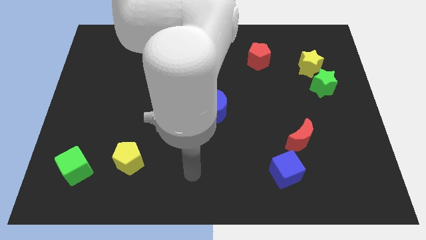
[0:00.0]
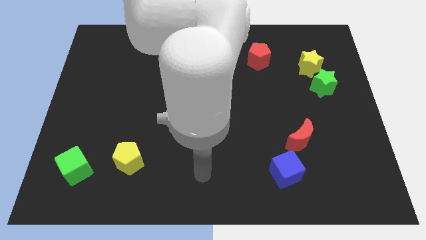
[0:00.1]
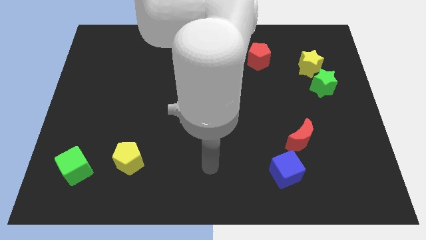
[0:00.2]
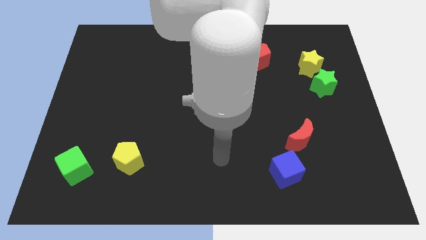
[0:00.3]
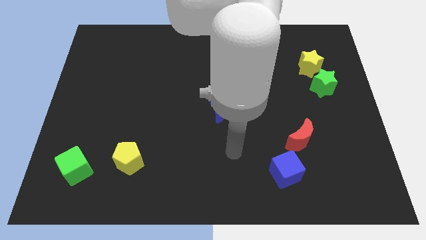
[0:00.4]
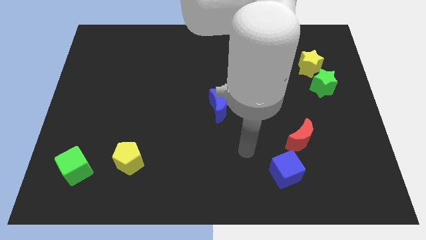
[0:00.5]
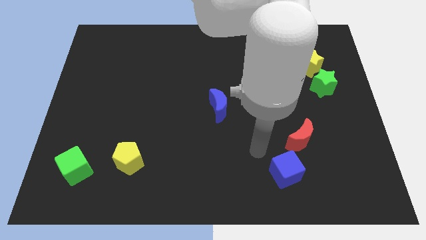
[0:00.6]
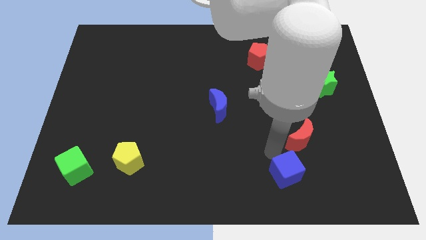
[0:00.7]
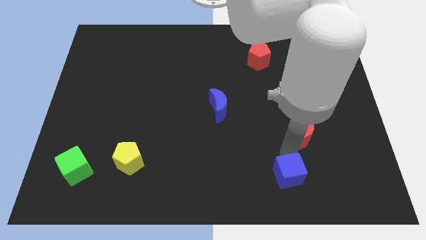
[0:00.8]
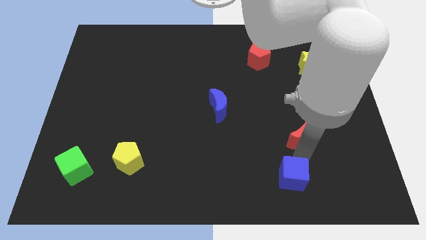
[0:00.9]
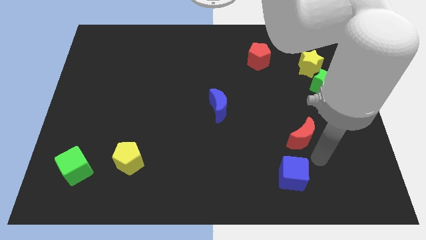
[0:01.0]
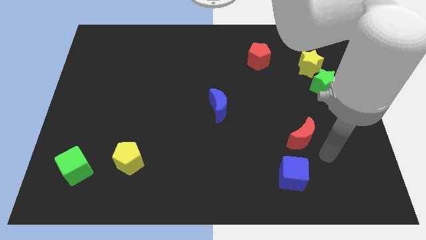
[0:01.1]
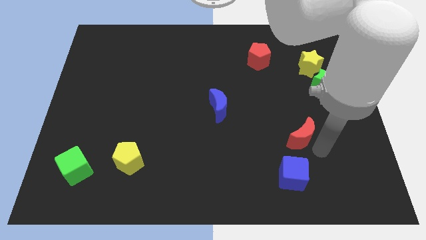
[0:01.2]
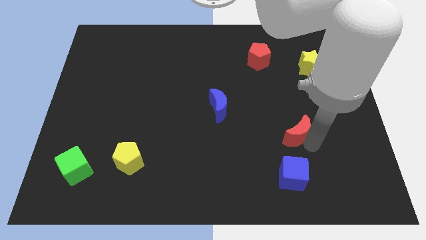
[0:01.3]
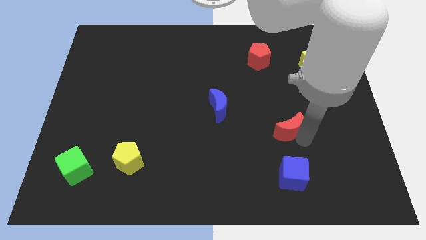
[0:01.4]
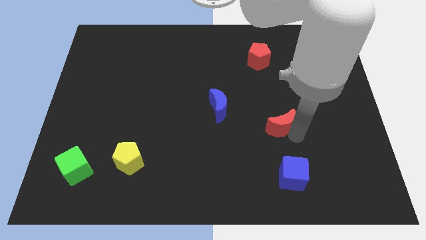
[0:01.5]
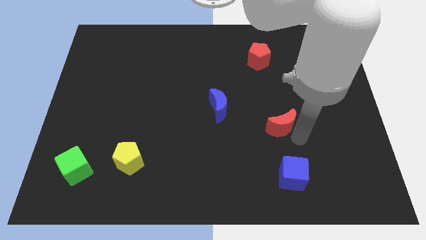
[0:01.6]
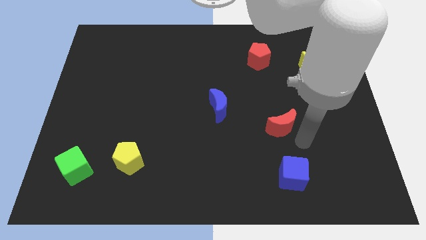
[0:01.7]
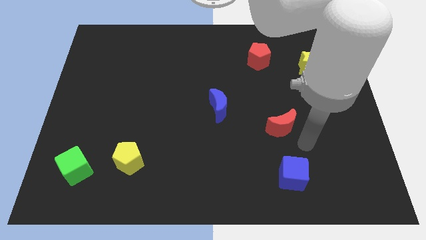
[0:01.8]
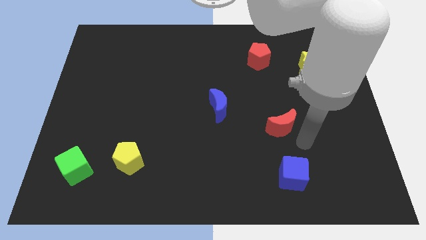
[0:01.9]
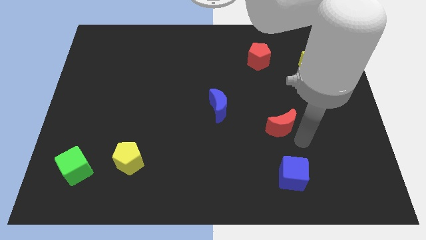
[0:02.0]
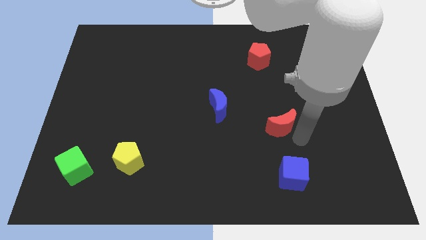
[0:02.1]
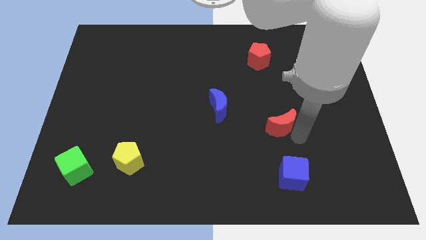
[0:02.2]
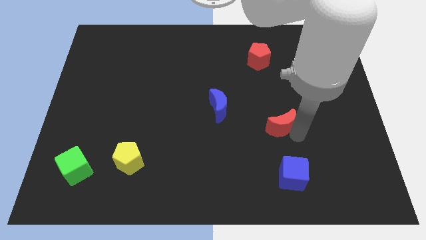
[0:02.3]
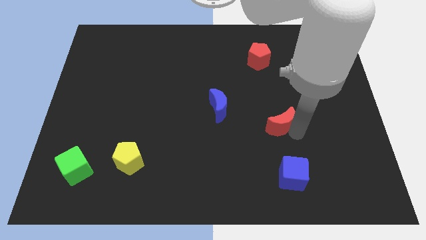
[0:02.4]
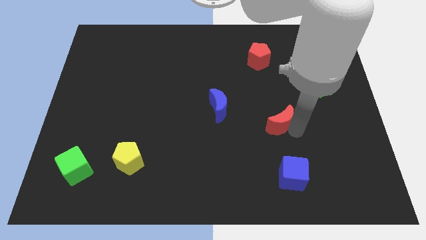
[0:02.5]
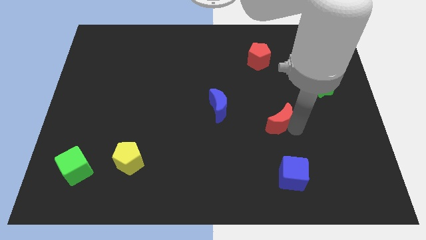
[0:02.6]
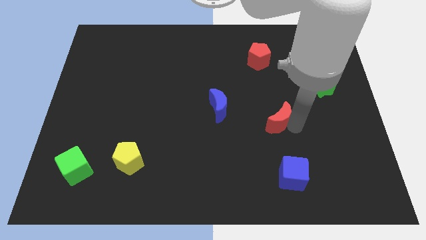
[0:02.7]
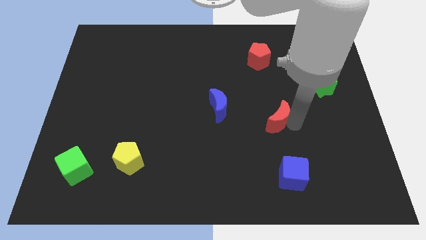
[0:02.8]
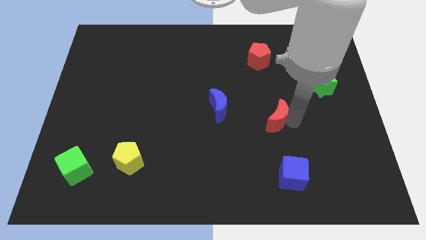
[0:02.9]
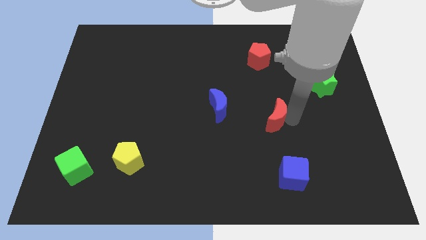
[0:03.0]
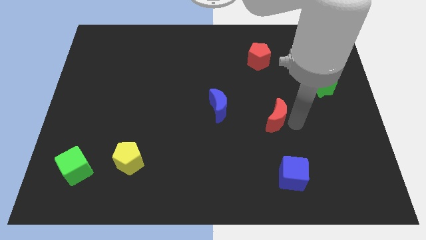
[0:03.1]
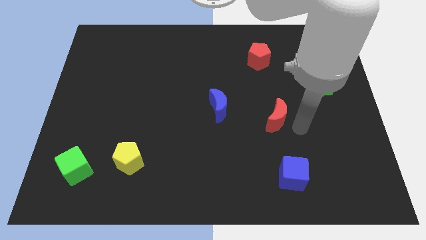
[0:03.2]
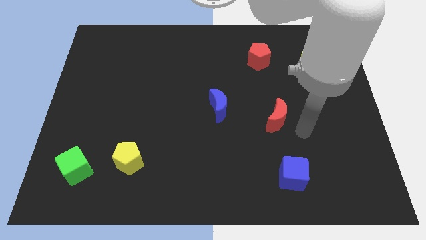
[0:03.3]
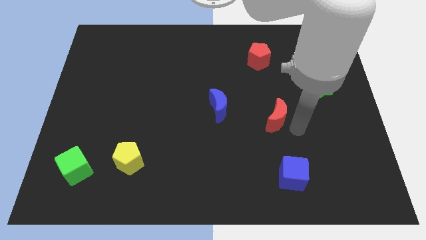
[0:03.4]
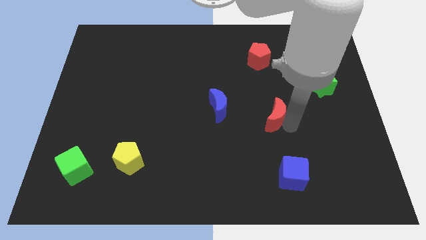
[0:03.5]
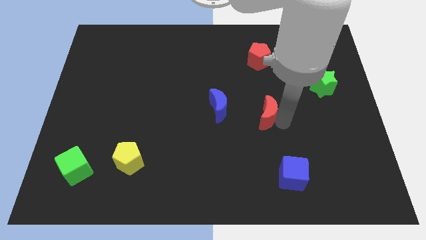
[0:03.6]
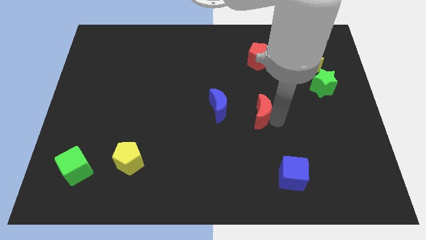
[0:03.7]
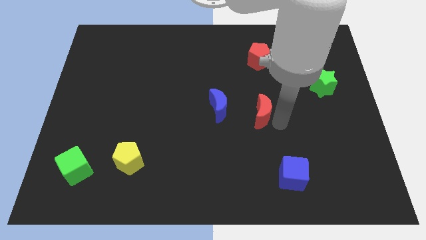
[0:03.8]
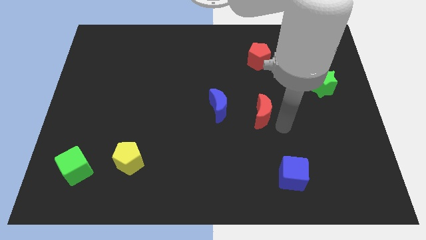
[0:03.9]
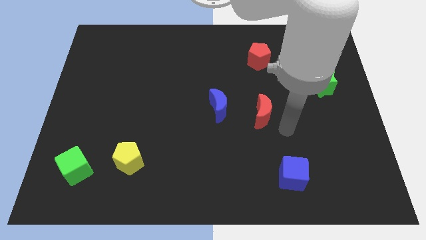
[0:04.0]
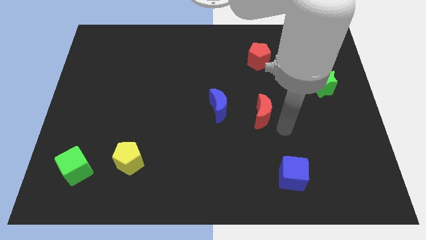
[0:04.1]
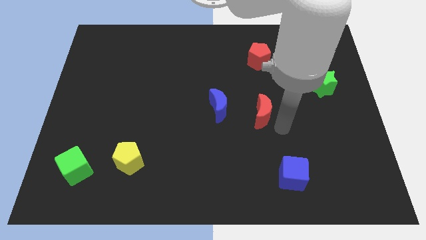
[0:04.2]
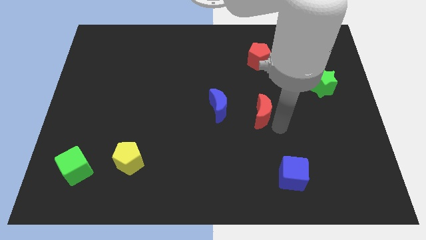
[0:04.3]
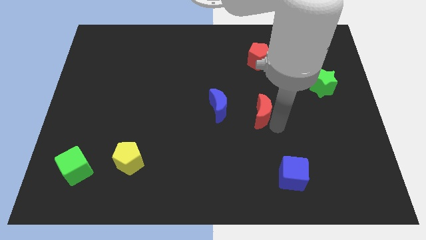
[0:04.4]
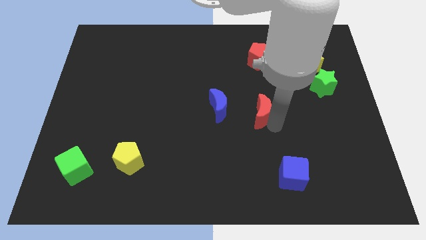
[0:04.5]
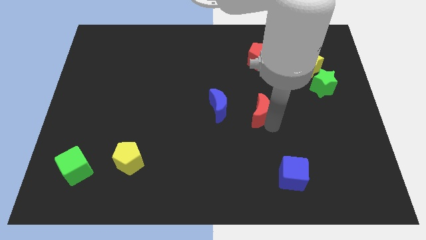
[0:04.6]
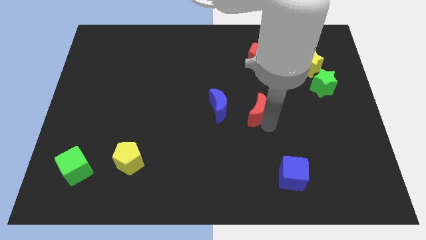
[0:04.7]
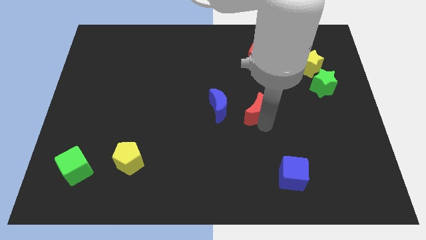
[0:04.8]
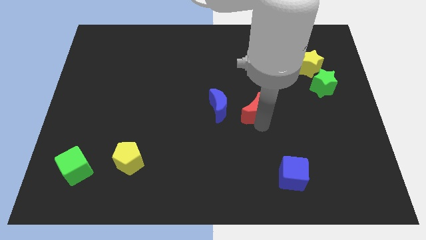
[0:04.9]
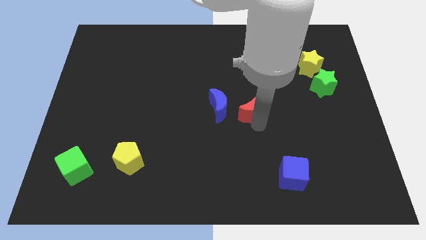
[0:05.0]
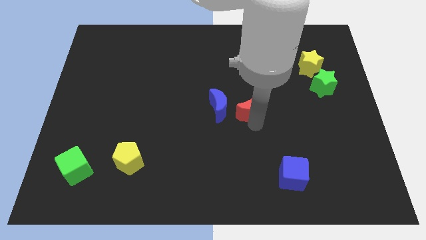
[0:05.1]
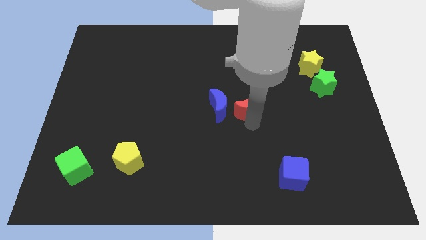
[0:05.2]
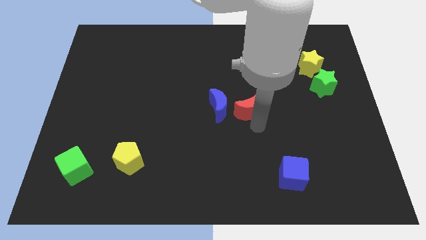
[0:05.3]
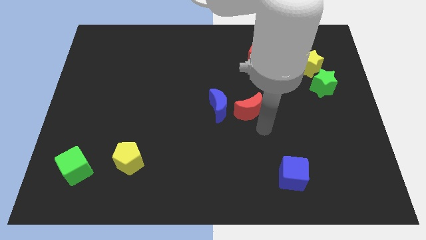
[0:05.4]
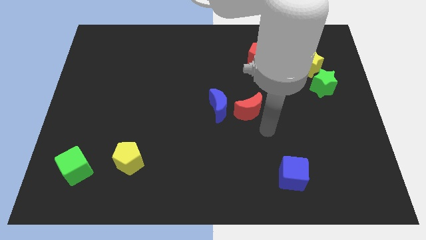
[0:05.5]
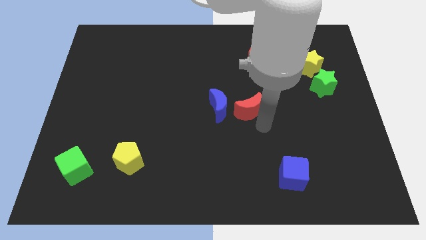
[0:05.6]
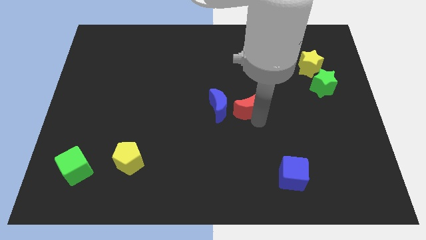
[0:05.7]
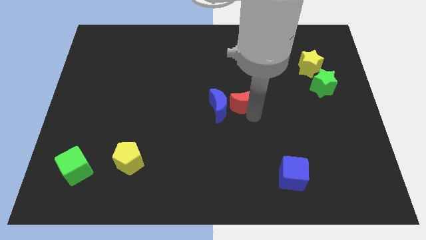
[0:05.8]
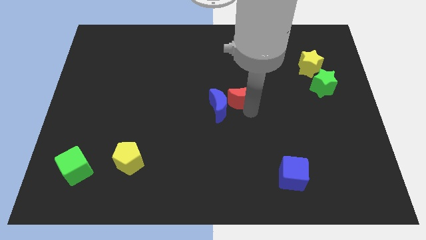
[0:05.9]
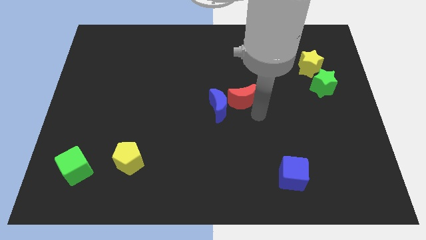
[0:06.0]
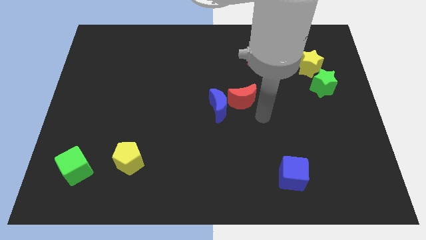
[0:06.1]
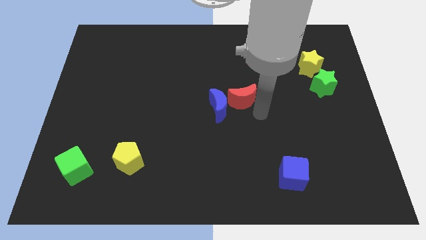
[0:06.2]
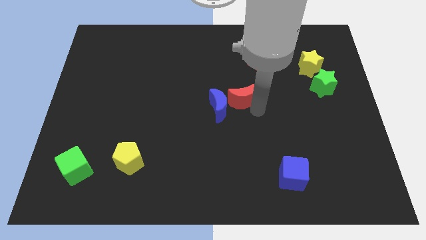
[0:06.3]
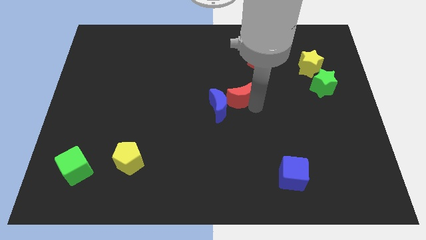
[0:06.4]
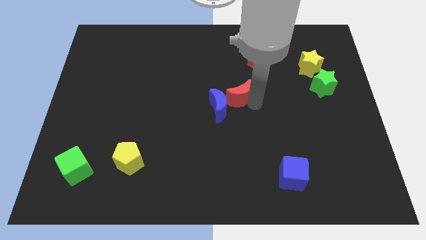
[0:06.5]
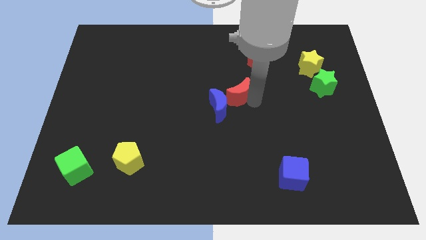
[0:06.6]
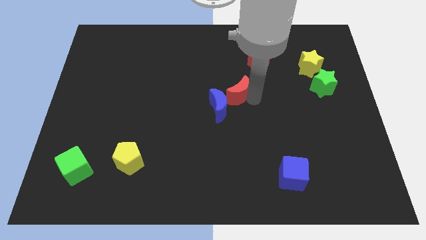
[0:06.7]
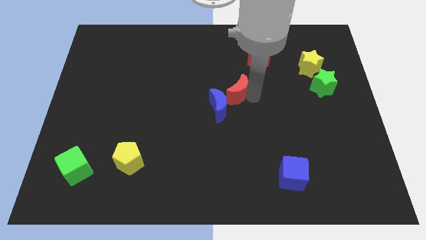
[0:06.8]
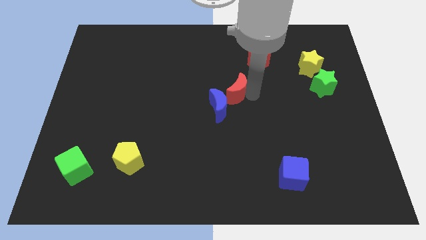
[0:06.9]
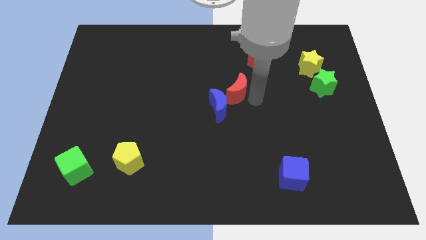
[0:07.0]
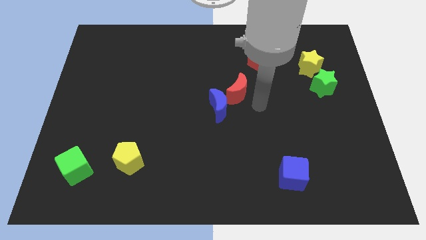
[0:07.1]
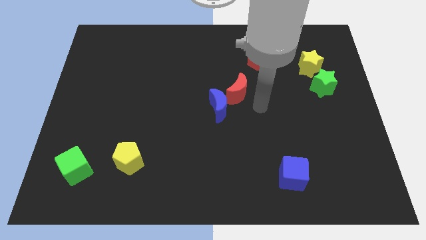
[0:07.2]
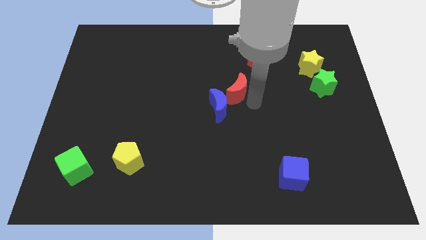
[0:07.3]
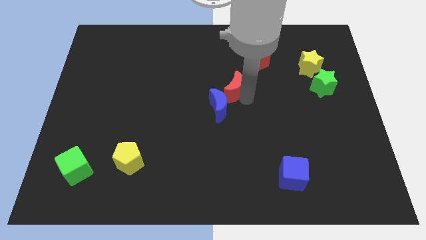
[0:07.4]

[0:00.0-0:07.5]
move the red moon up and left
